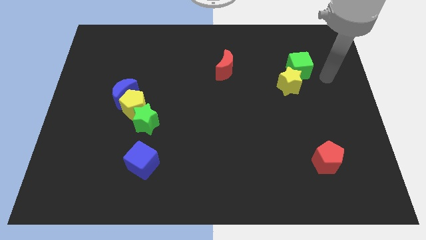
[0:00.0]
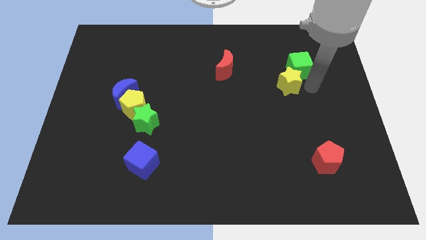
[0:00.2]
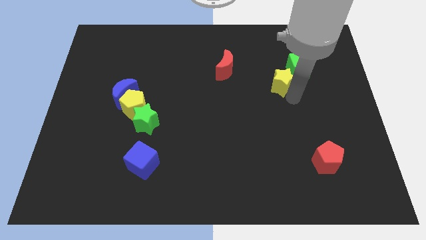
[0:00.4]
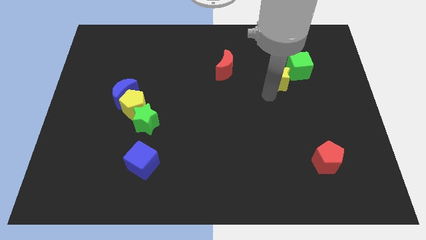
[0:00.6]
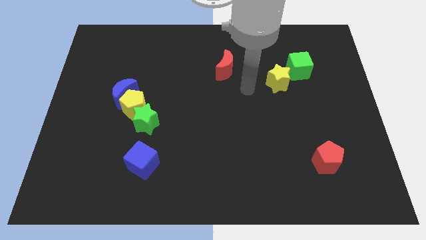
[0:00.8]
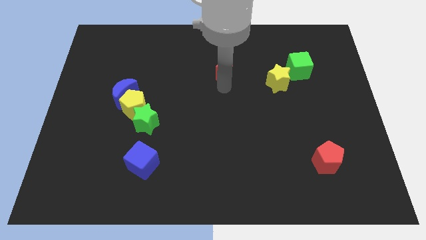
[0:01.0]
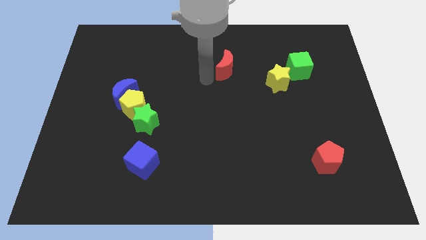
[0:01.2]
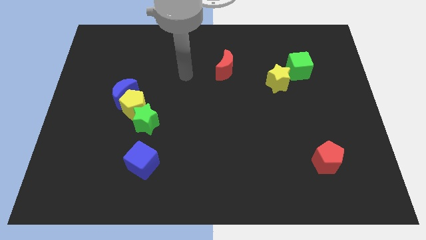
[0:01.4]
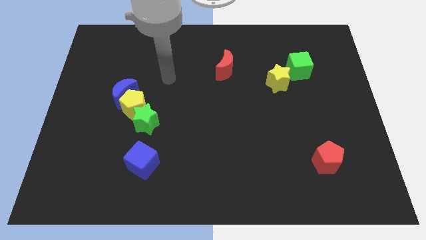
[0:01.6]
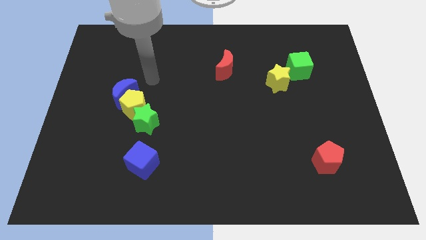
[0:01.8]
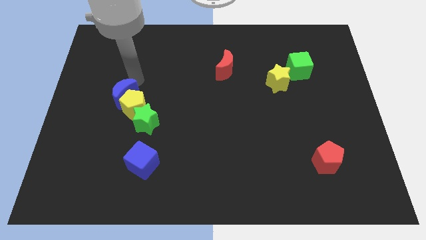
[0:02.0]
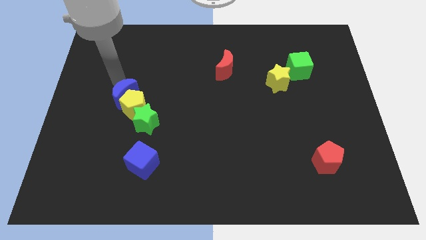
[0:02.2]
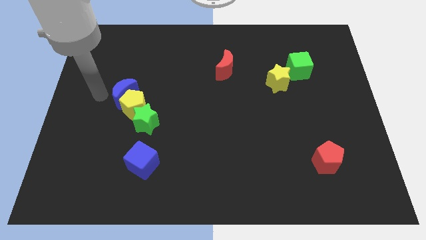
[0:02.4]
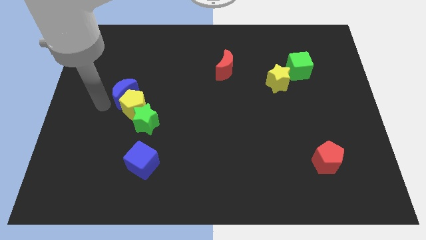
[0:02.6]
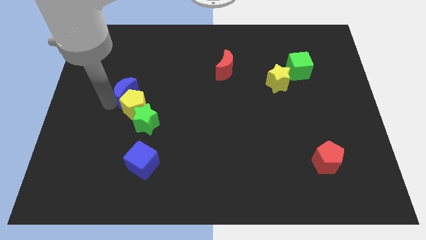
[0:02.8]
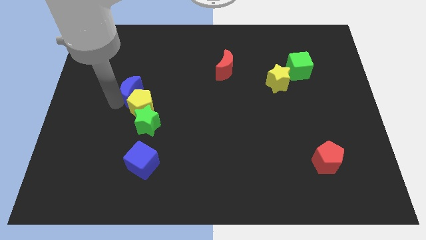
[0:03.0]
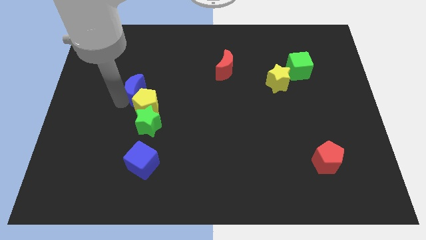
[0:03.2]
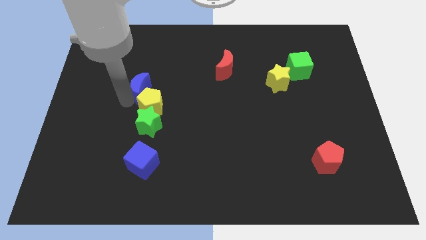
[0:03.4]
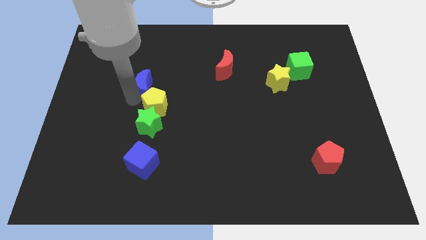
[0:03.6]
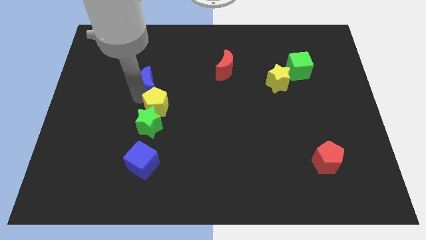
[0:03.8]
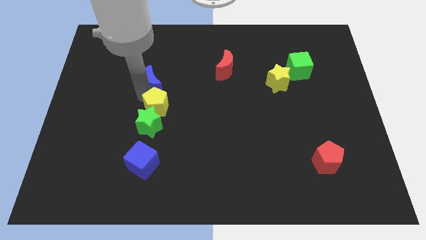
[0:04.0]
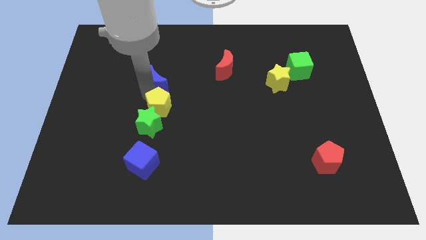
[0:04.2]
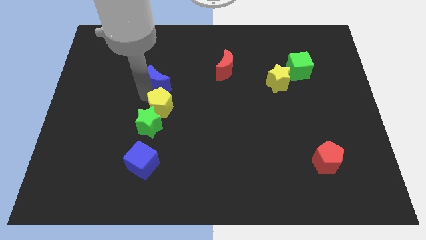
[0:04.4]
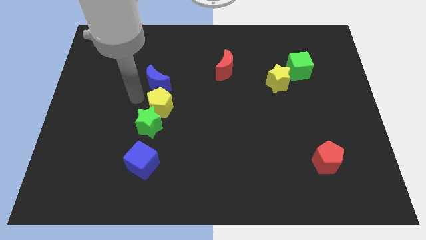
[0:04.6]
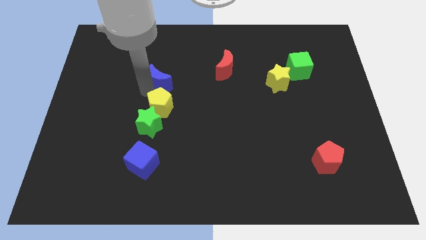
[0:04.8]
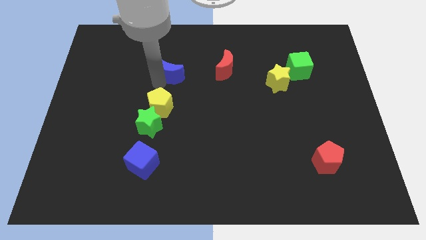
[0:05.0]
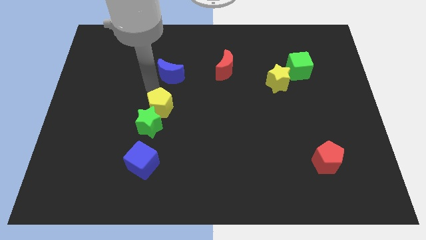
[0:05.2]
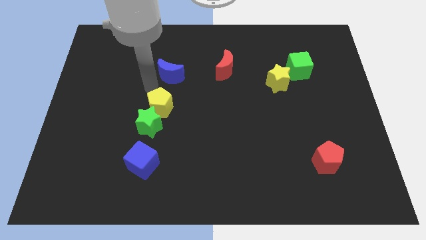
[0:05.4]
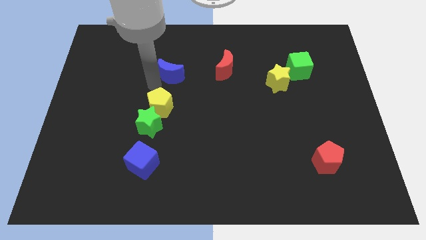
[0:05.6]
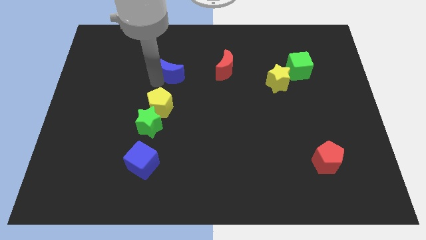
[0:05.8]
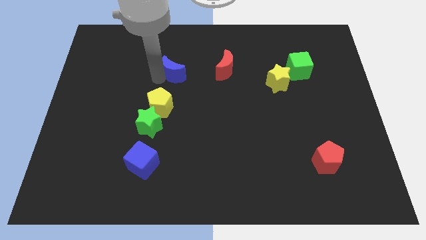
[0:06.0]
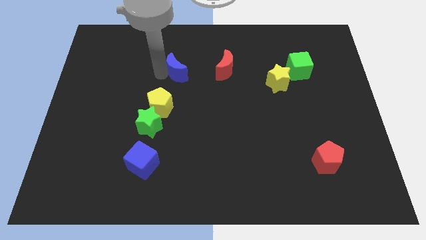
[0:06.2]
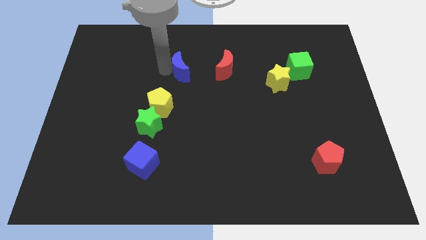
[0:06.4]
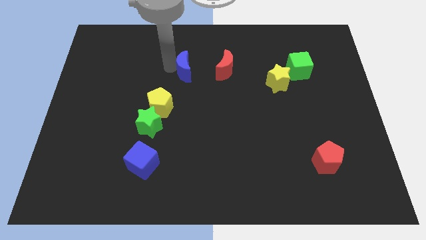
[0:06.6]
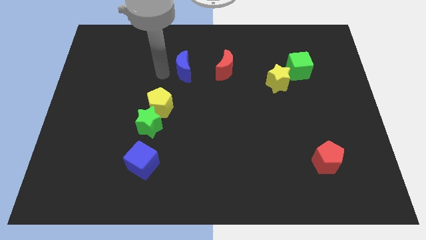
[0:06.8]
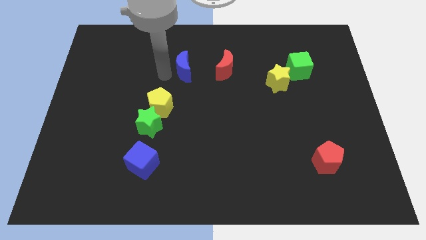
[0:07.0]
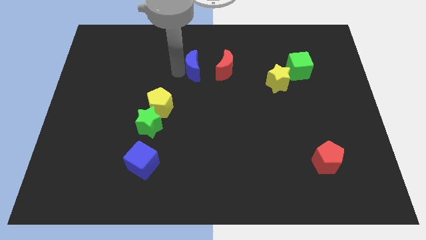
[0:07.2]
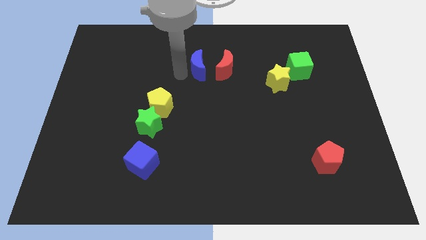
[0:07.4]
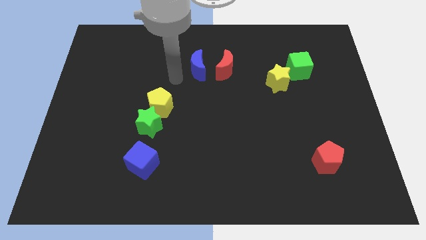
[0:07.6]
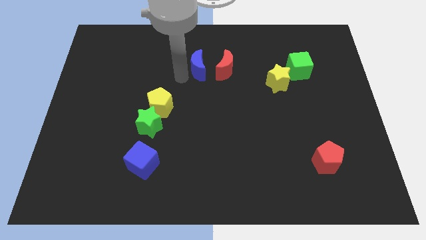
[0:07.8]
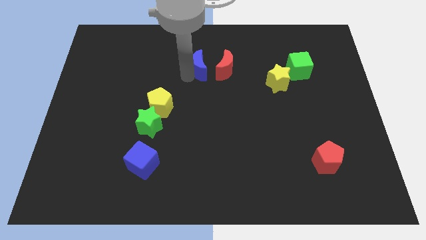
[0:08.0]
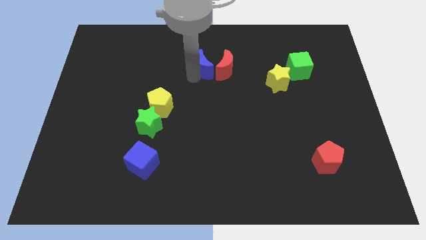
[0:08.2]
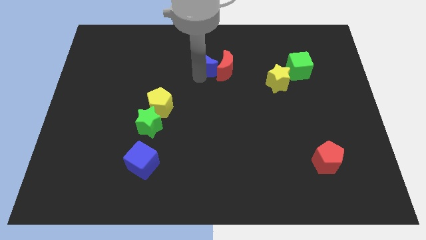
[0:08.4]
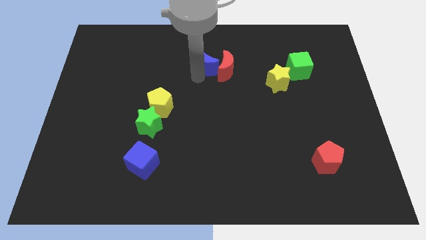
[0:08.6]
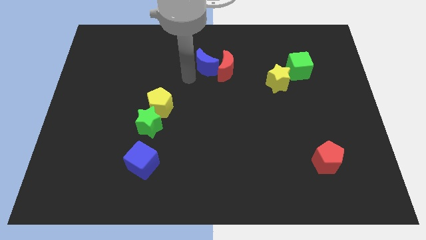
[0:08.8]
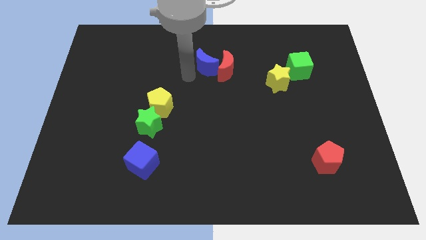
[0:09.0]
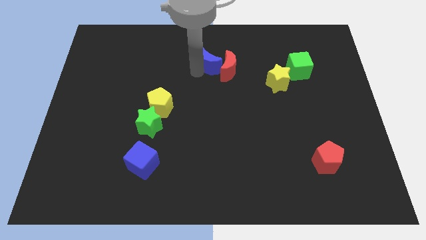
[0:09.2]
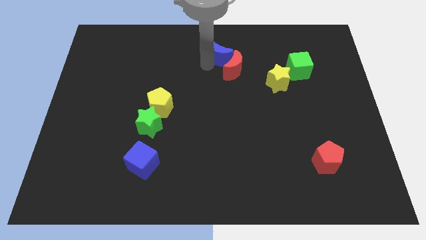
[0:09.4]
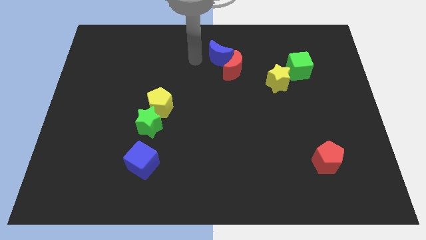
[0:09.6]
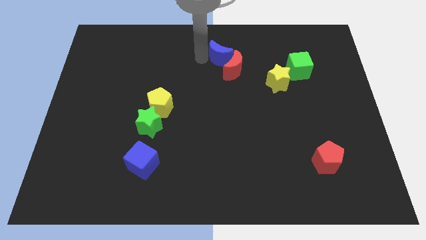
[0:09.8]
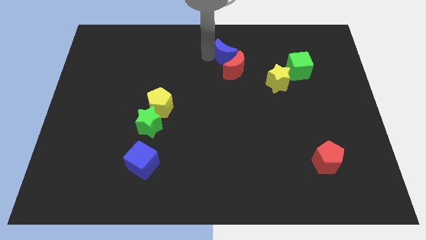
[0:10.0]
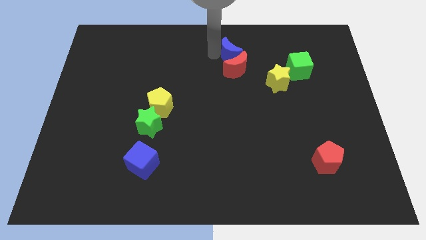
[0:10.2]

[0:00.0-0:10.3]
slide the blue moon diagonally up and to the right of the red moon
